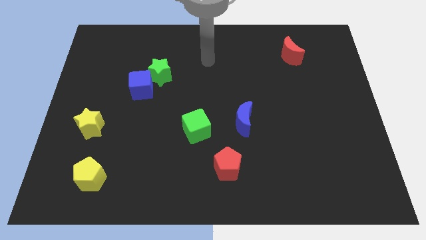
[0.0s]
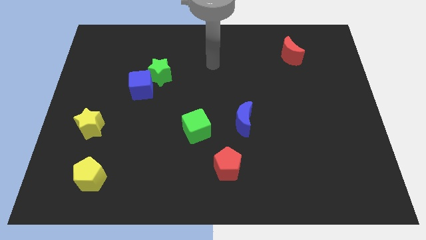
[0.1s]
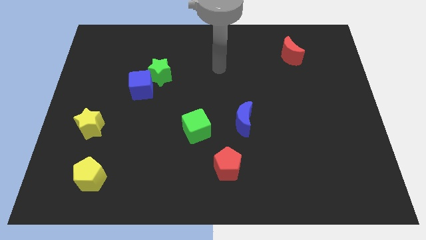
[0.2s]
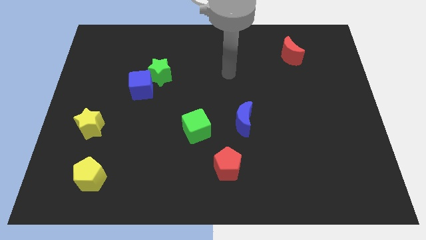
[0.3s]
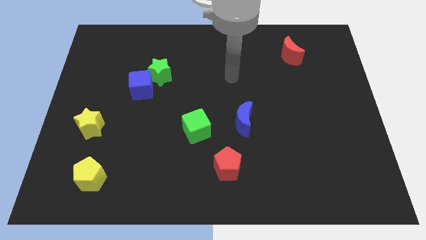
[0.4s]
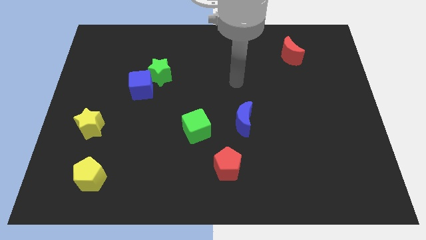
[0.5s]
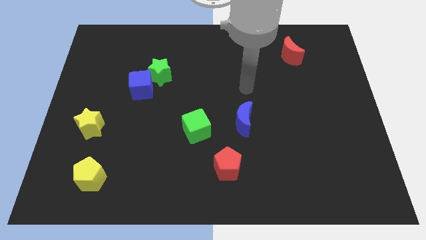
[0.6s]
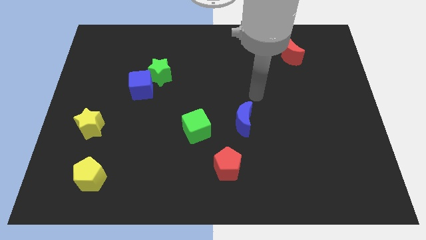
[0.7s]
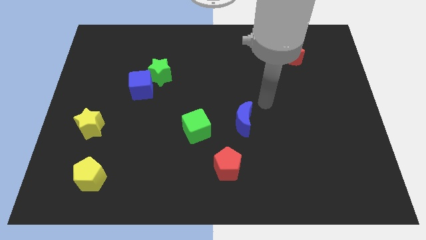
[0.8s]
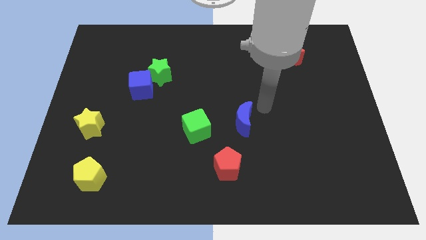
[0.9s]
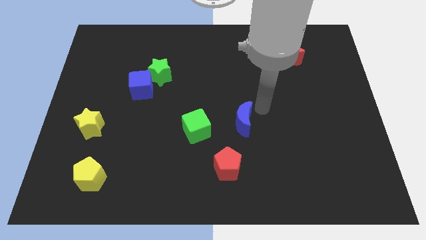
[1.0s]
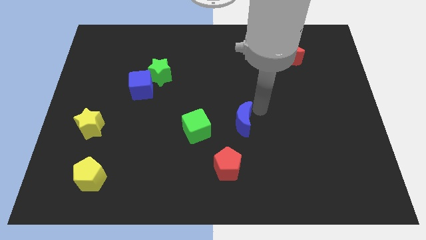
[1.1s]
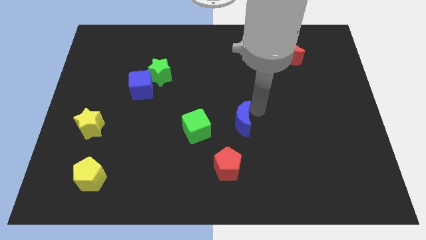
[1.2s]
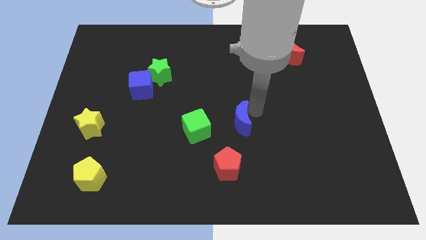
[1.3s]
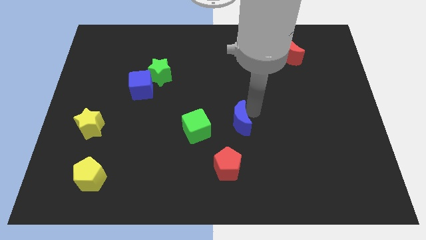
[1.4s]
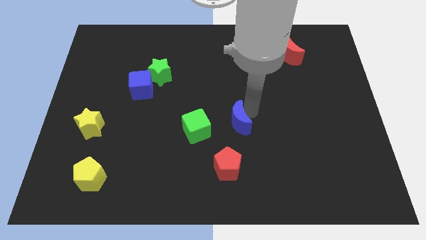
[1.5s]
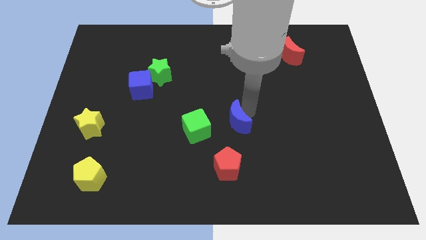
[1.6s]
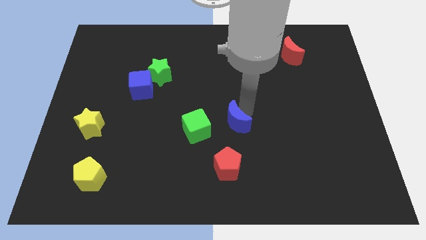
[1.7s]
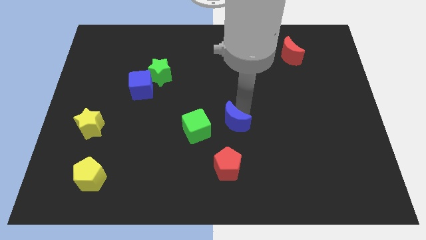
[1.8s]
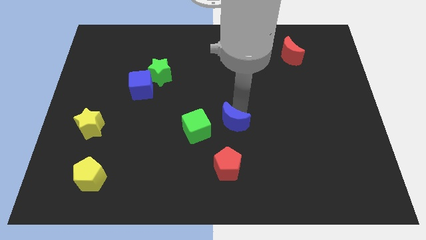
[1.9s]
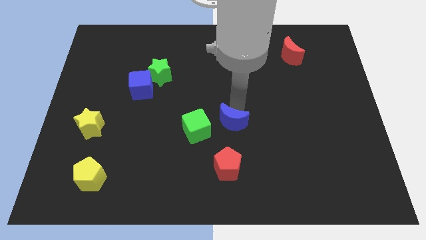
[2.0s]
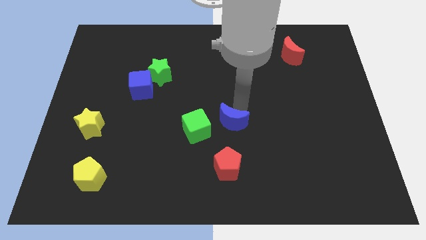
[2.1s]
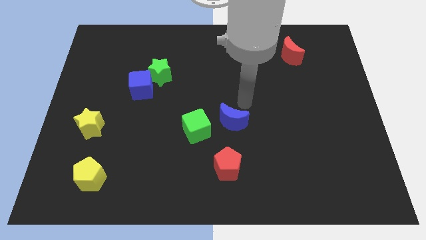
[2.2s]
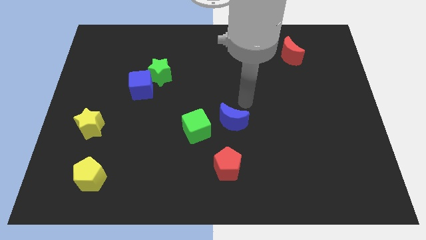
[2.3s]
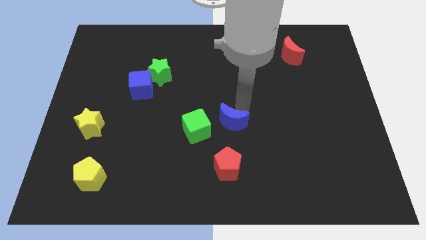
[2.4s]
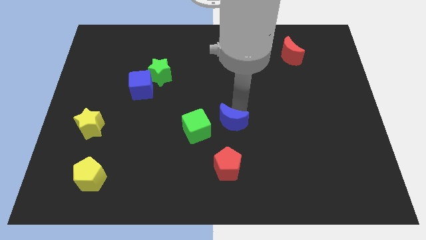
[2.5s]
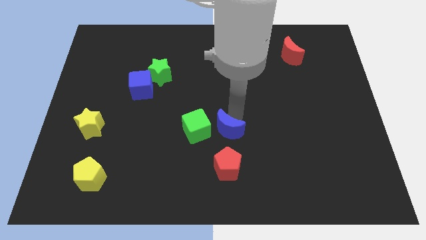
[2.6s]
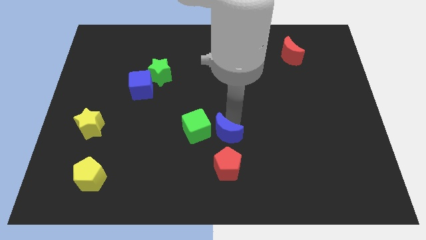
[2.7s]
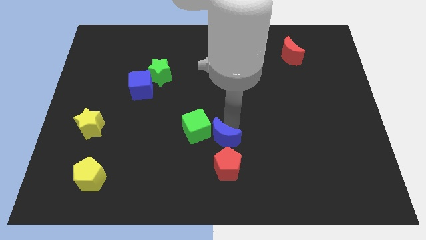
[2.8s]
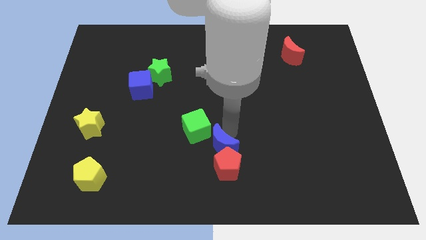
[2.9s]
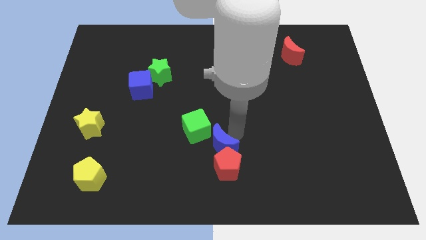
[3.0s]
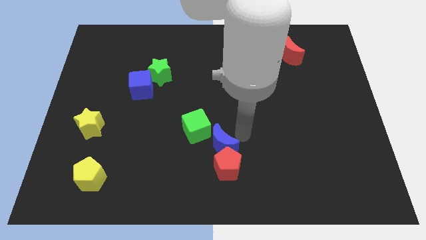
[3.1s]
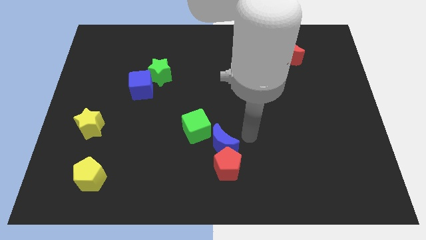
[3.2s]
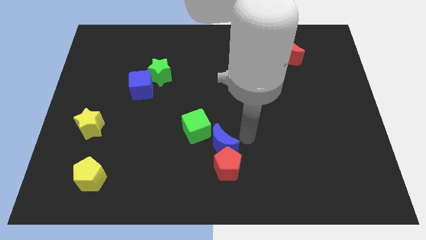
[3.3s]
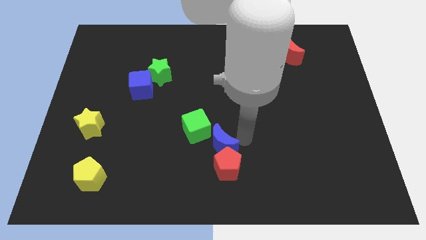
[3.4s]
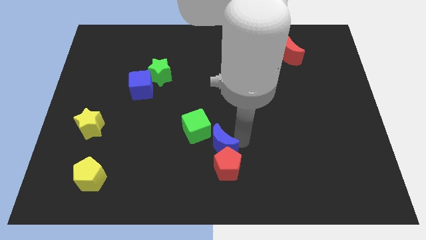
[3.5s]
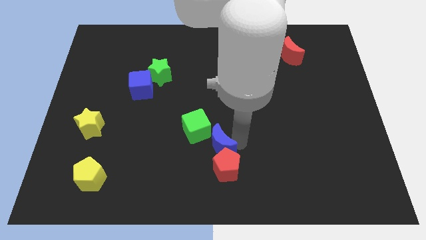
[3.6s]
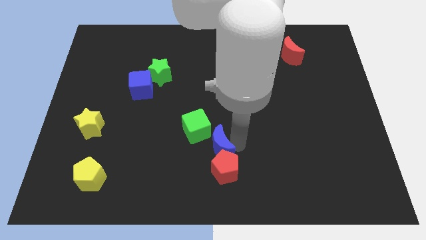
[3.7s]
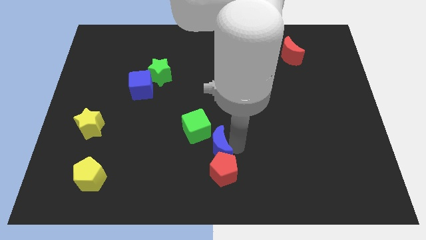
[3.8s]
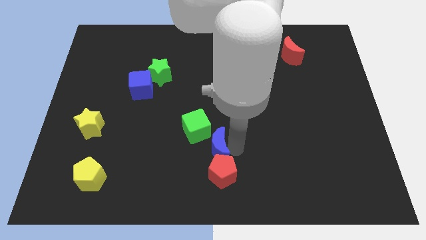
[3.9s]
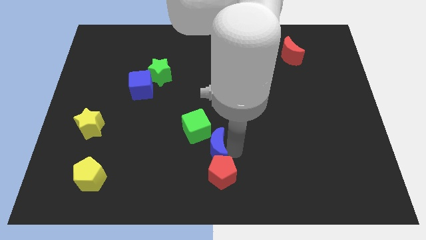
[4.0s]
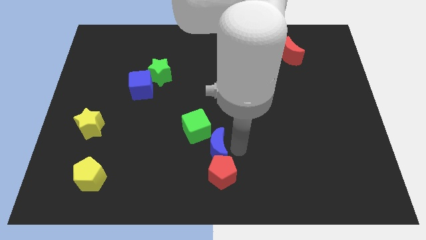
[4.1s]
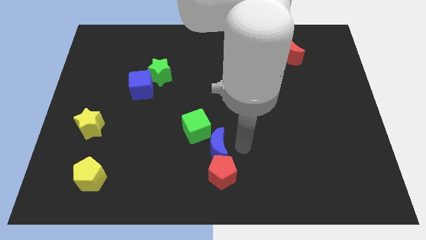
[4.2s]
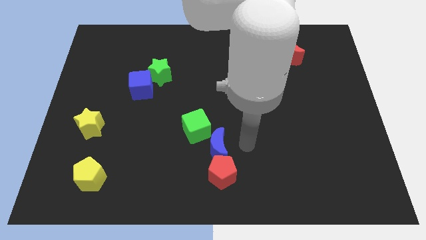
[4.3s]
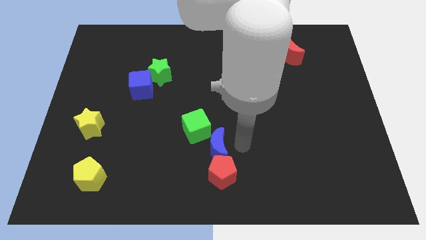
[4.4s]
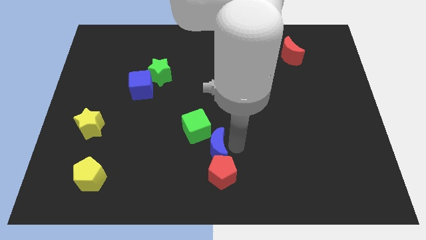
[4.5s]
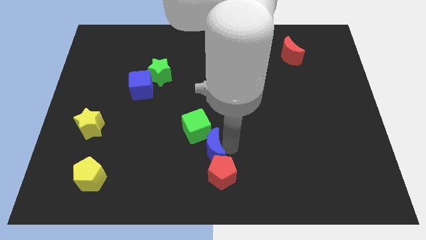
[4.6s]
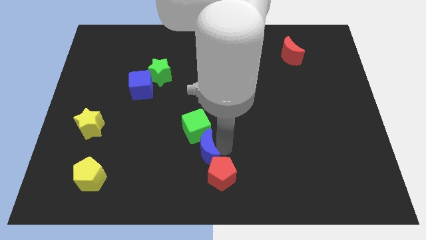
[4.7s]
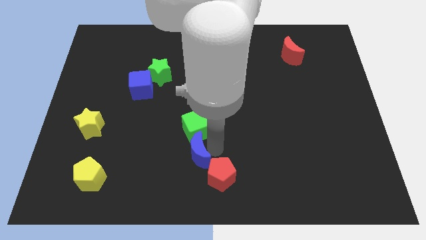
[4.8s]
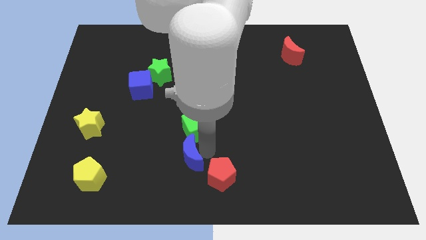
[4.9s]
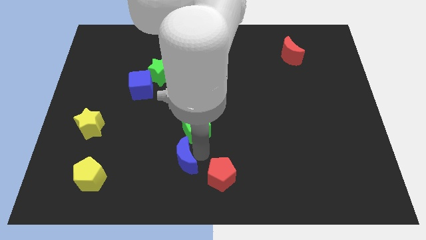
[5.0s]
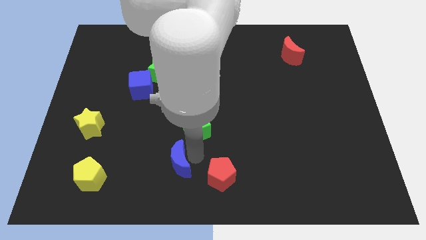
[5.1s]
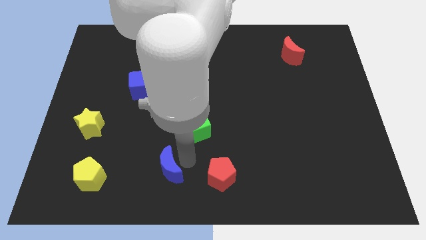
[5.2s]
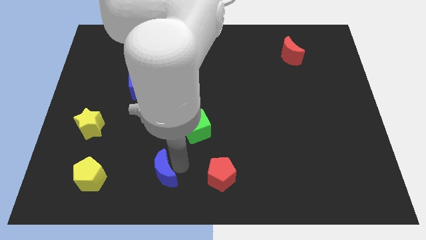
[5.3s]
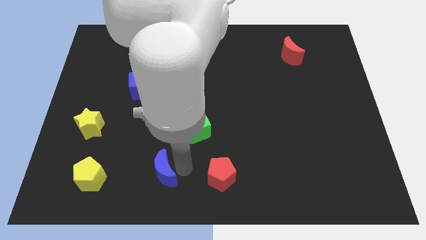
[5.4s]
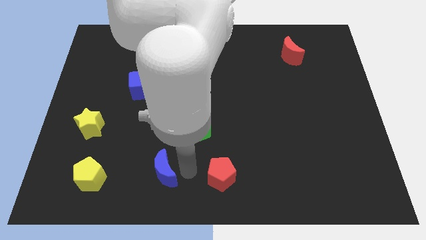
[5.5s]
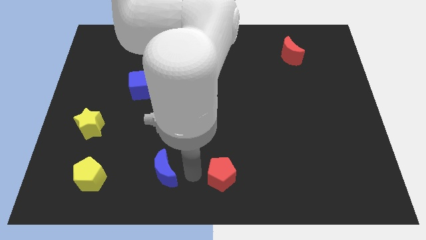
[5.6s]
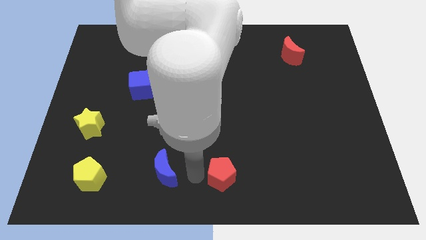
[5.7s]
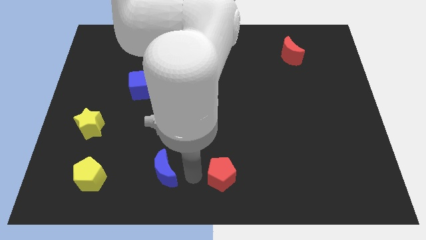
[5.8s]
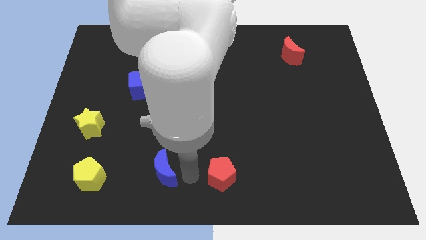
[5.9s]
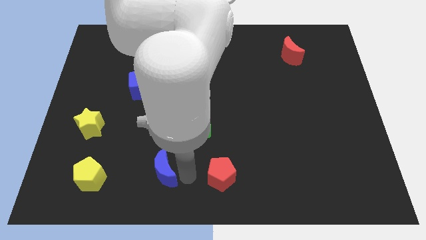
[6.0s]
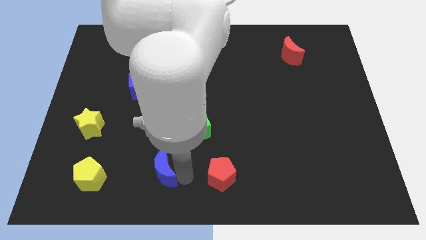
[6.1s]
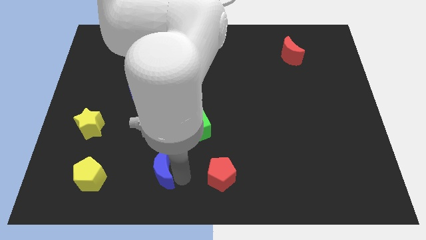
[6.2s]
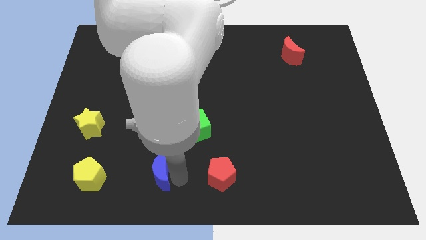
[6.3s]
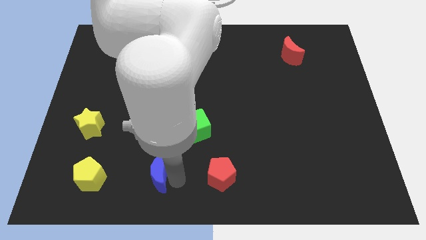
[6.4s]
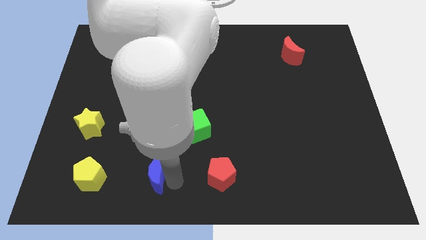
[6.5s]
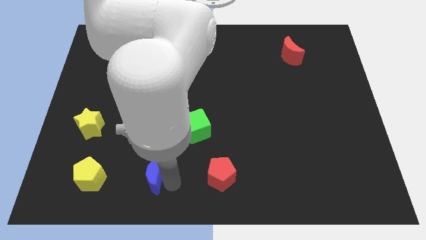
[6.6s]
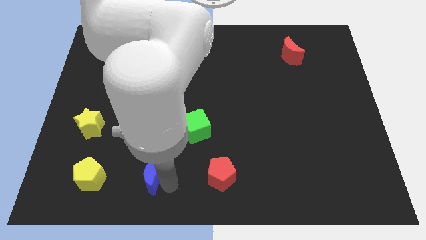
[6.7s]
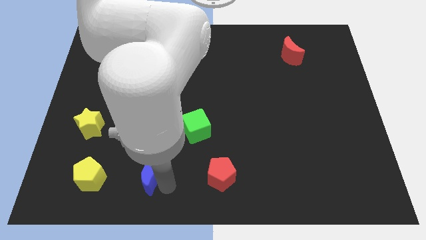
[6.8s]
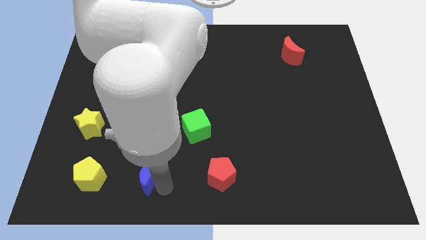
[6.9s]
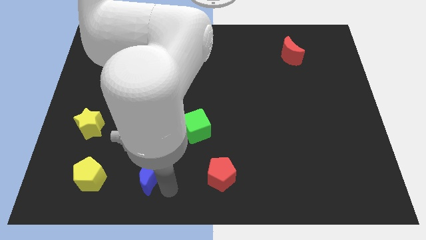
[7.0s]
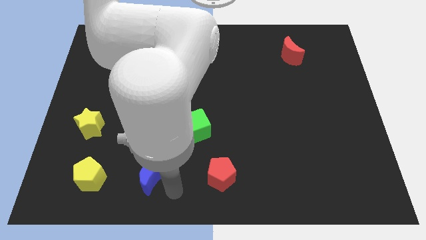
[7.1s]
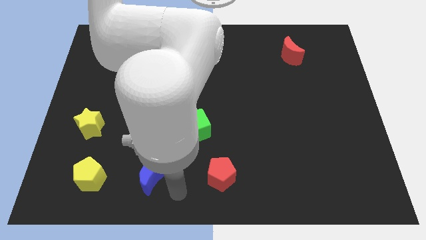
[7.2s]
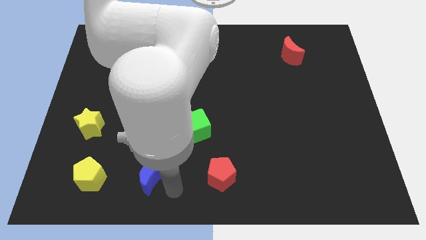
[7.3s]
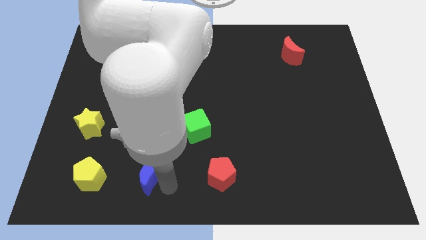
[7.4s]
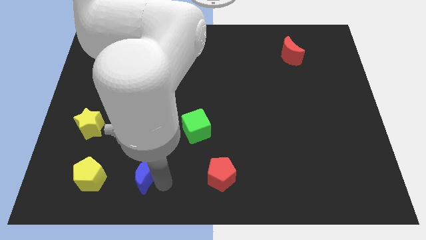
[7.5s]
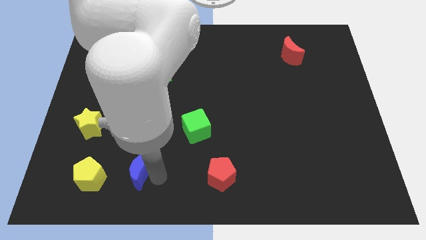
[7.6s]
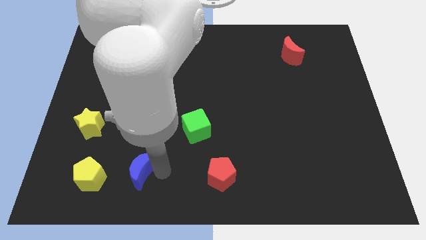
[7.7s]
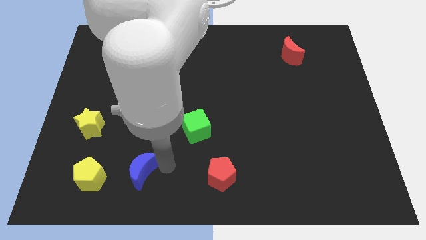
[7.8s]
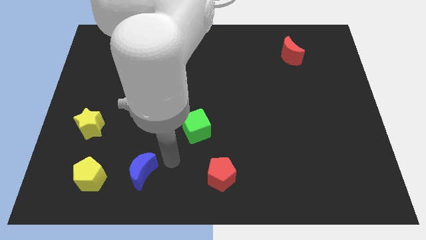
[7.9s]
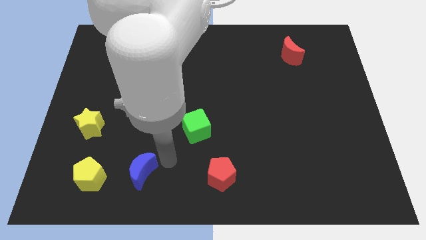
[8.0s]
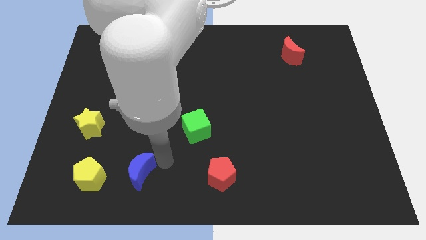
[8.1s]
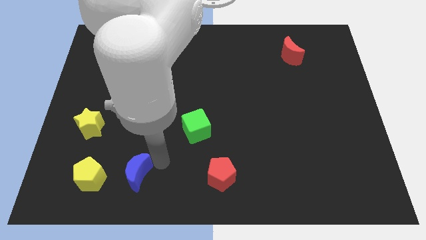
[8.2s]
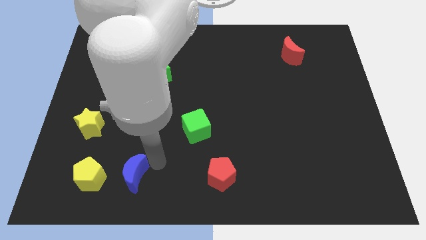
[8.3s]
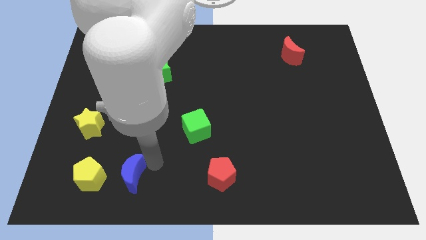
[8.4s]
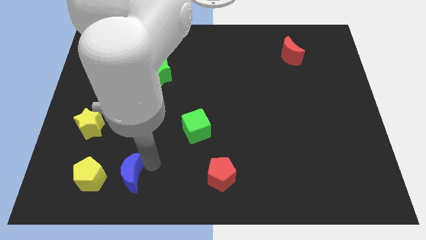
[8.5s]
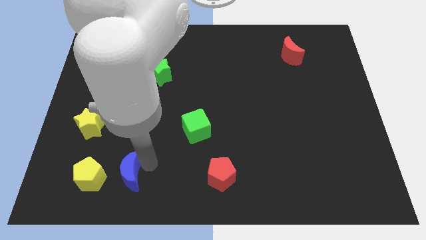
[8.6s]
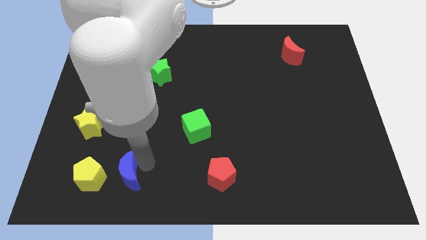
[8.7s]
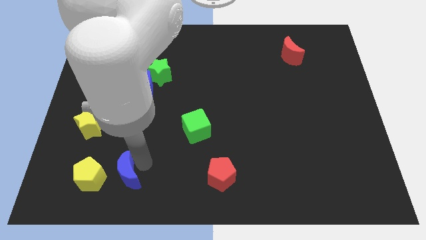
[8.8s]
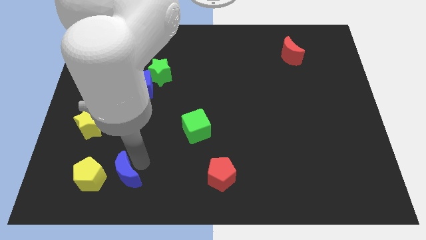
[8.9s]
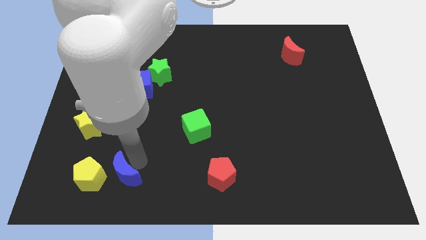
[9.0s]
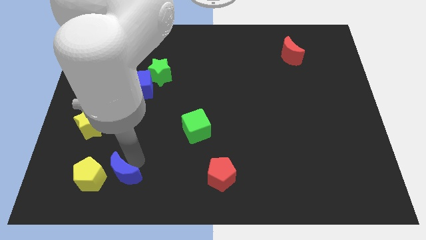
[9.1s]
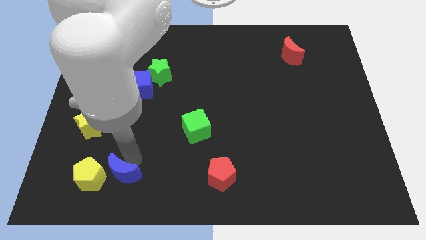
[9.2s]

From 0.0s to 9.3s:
push the blue moon close to the yellow pentagon
